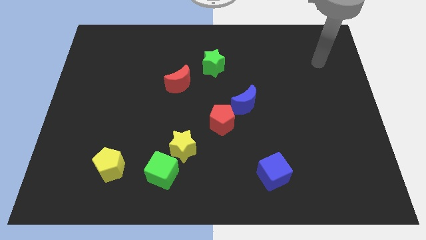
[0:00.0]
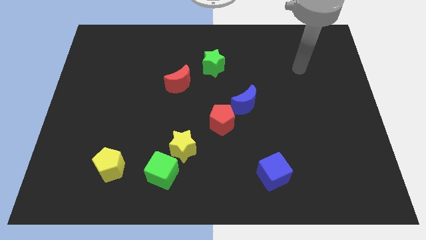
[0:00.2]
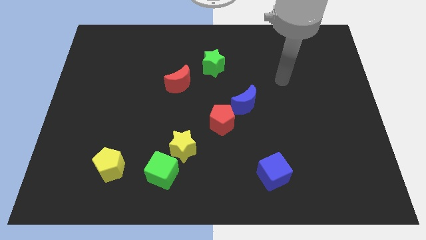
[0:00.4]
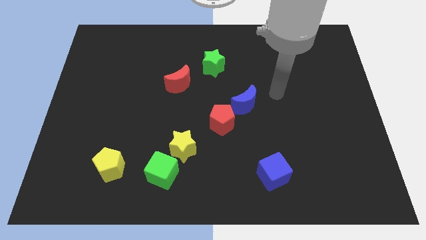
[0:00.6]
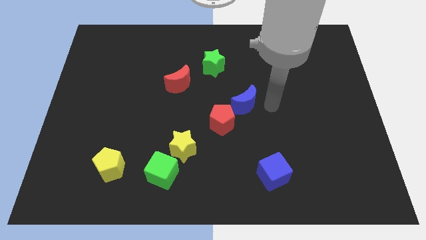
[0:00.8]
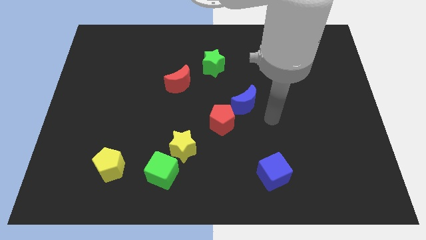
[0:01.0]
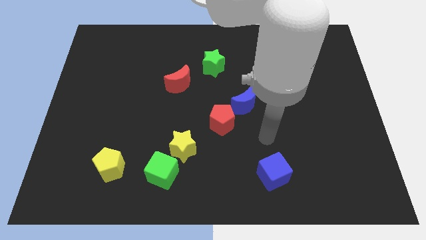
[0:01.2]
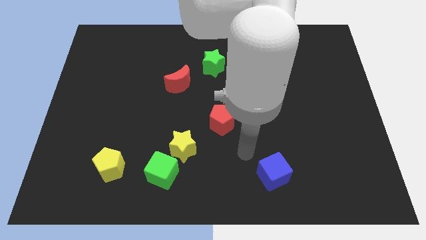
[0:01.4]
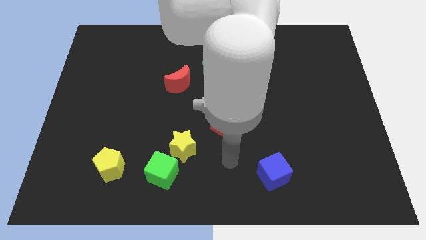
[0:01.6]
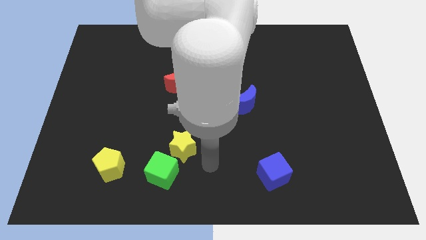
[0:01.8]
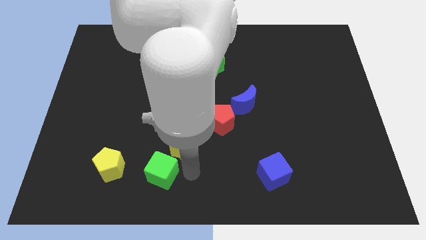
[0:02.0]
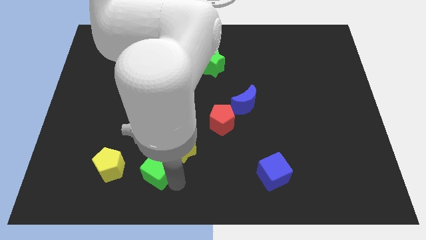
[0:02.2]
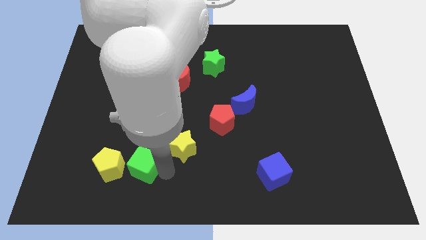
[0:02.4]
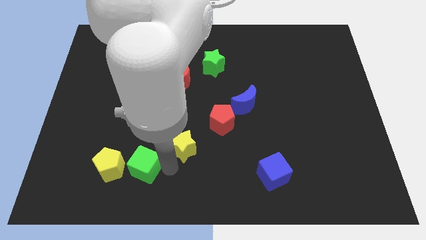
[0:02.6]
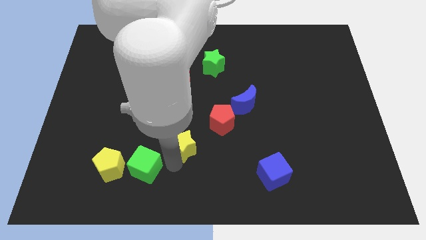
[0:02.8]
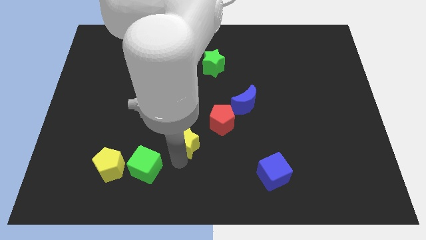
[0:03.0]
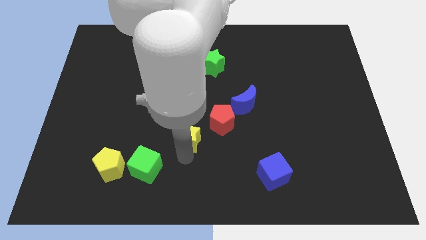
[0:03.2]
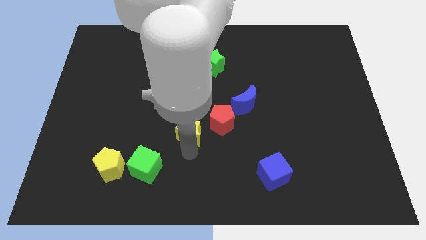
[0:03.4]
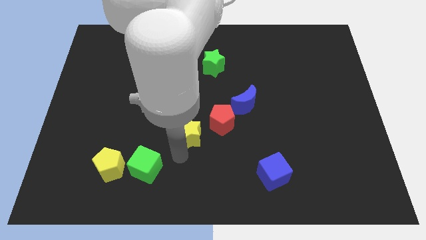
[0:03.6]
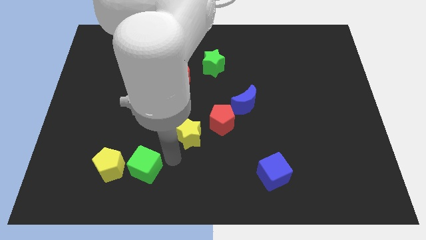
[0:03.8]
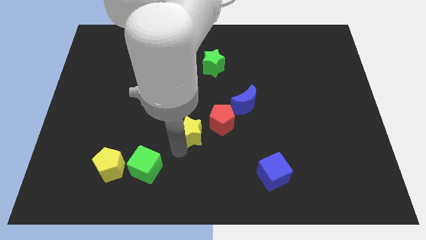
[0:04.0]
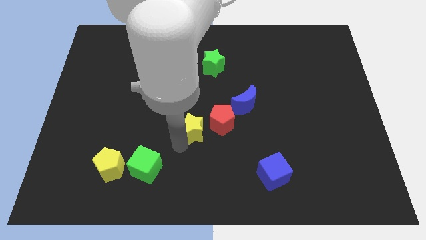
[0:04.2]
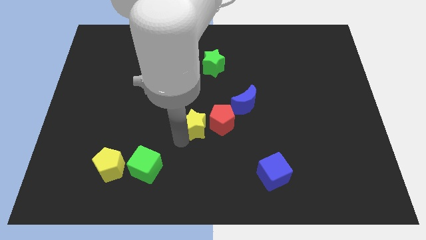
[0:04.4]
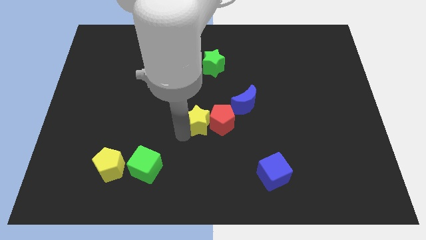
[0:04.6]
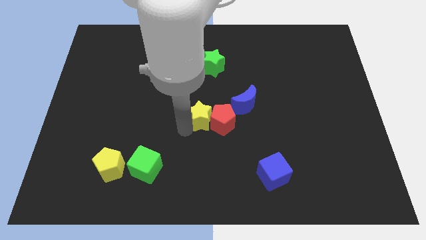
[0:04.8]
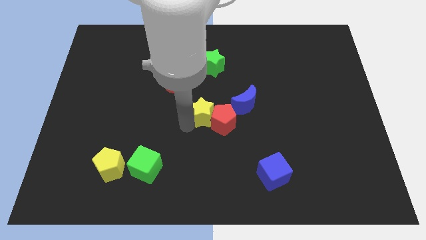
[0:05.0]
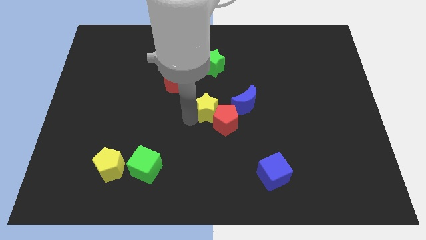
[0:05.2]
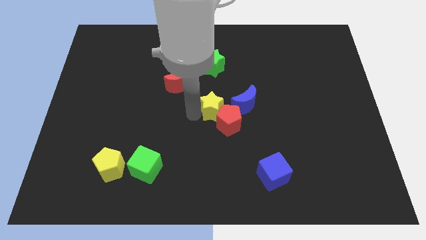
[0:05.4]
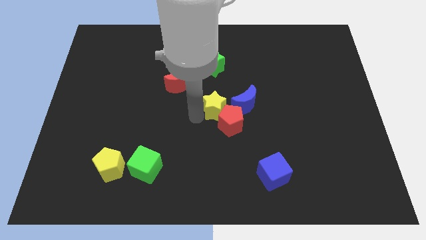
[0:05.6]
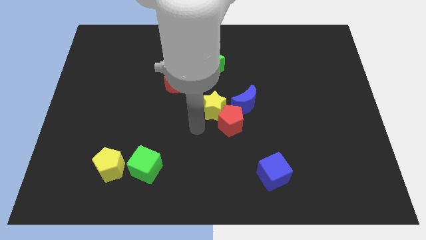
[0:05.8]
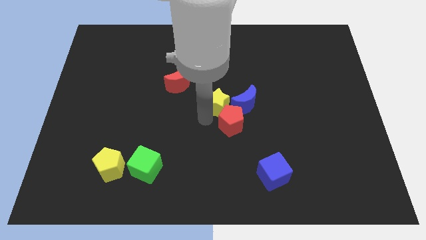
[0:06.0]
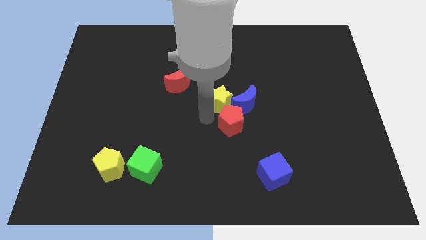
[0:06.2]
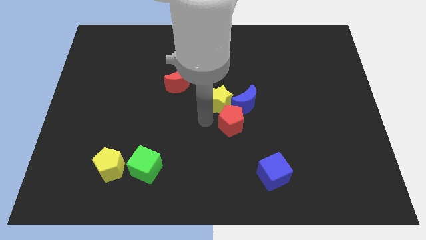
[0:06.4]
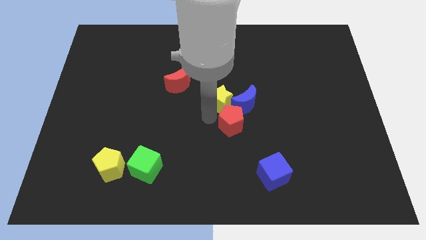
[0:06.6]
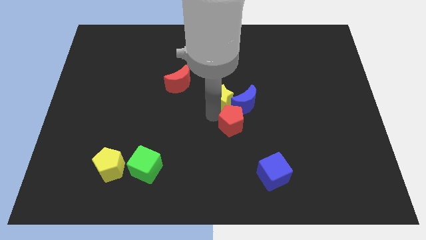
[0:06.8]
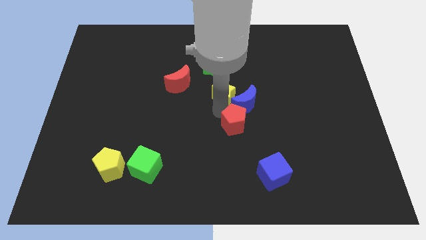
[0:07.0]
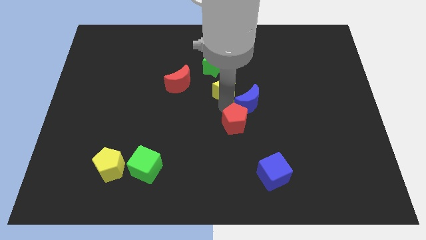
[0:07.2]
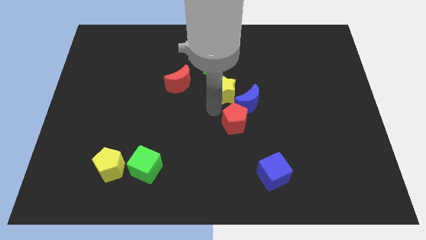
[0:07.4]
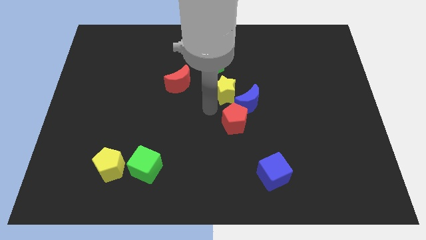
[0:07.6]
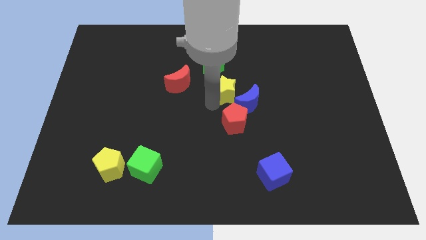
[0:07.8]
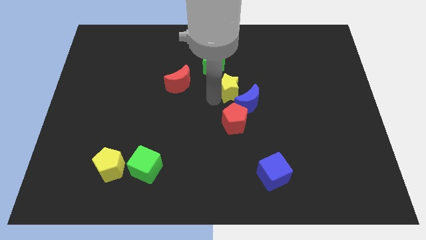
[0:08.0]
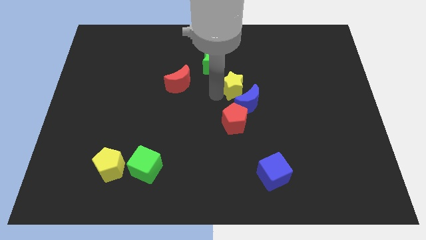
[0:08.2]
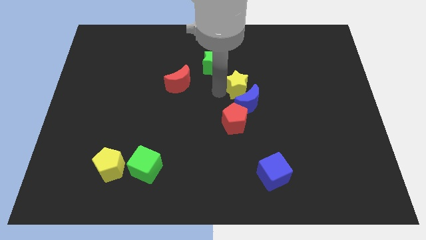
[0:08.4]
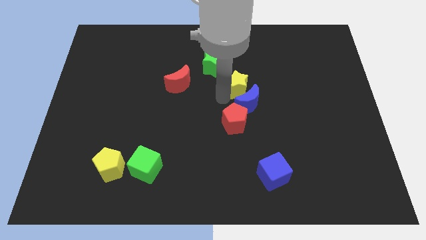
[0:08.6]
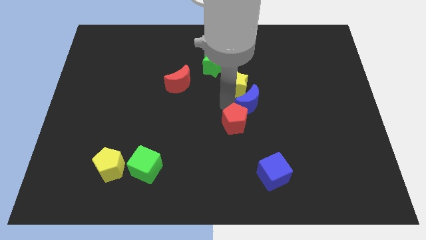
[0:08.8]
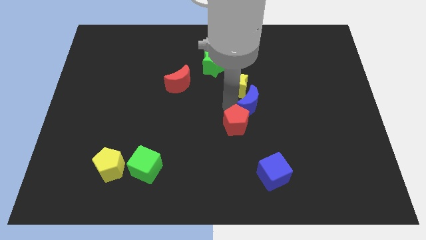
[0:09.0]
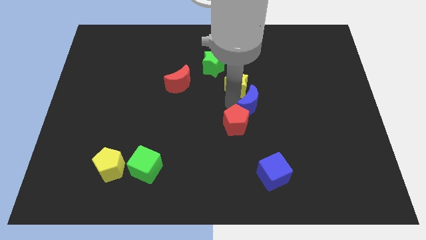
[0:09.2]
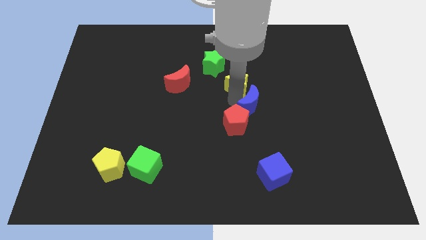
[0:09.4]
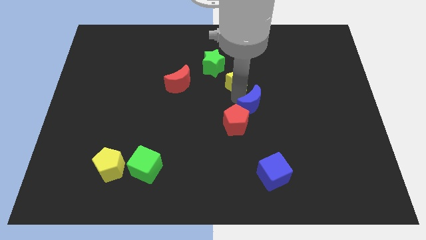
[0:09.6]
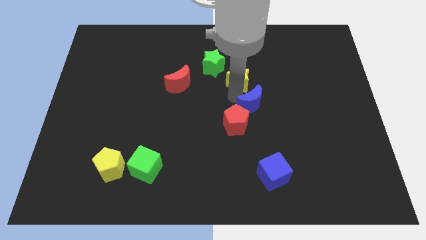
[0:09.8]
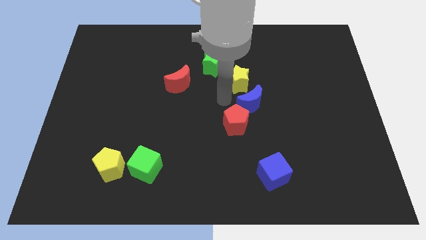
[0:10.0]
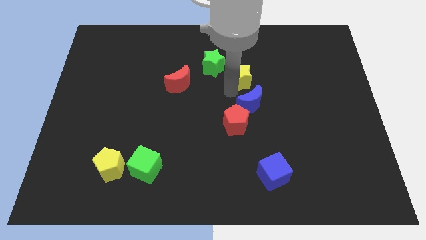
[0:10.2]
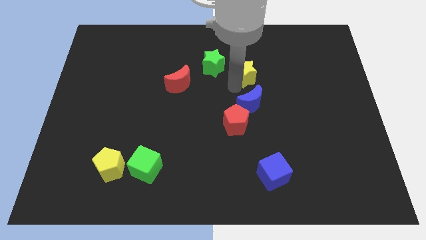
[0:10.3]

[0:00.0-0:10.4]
push the yellow star to the right side of the green star

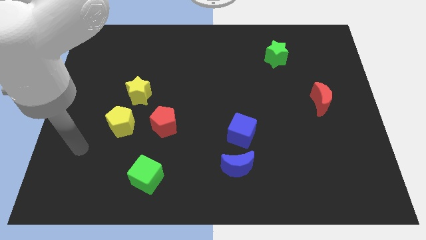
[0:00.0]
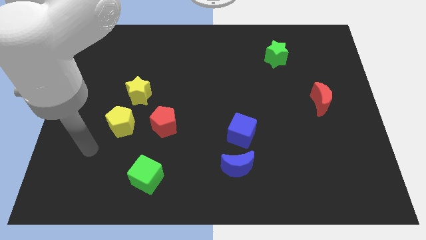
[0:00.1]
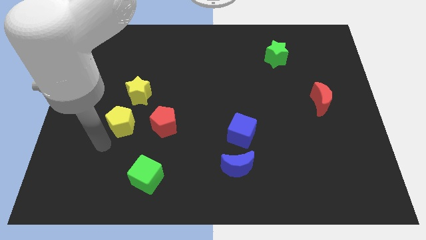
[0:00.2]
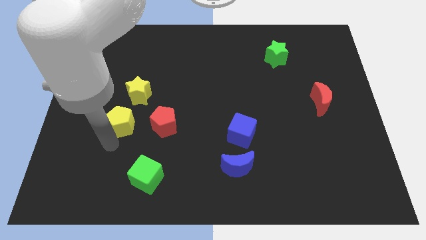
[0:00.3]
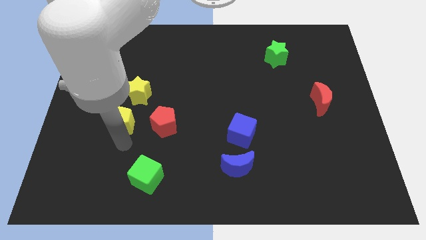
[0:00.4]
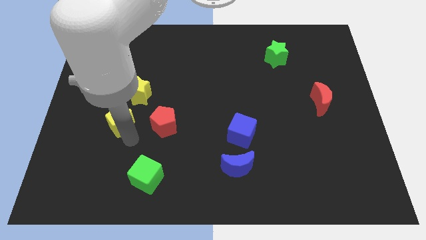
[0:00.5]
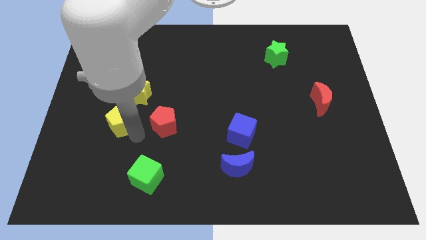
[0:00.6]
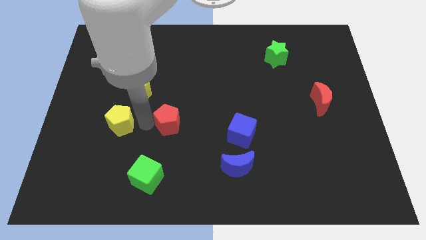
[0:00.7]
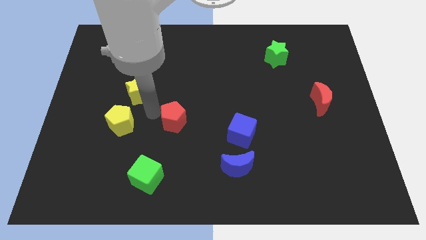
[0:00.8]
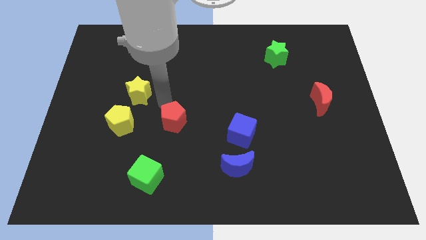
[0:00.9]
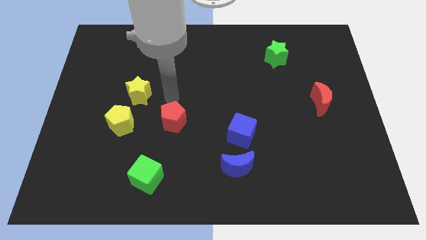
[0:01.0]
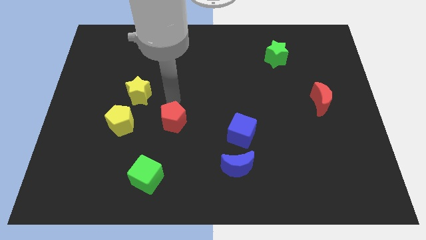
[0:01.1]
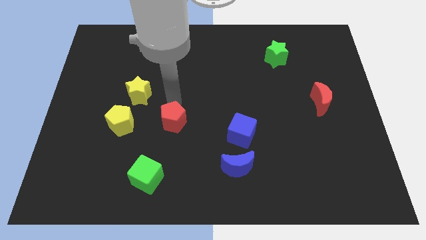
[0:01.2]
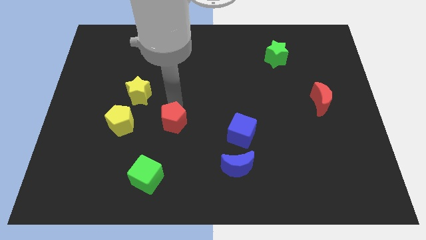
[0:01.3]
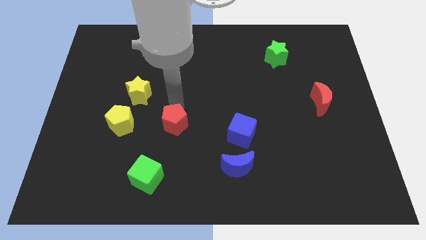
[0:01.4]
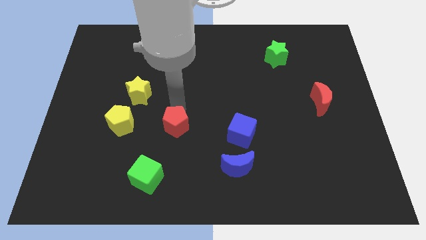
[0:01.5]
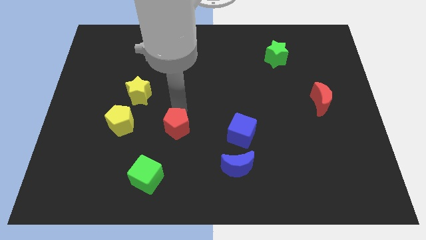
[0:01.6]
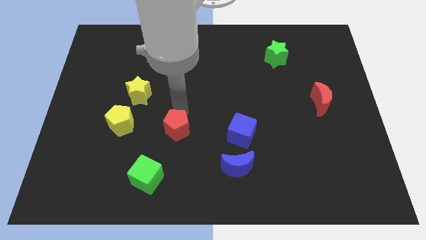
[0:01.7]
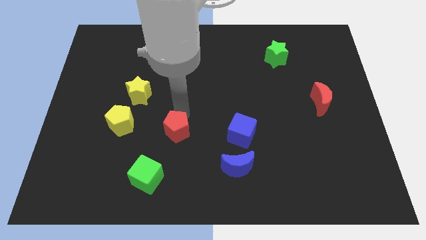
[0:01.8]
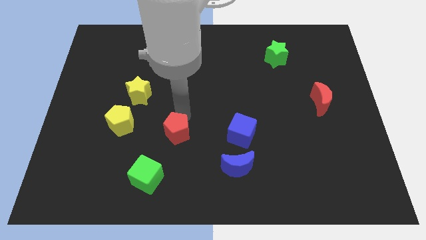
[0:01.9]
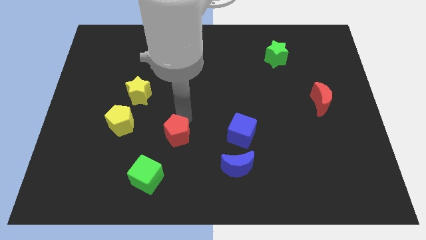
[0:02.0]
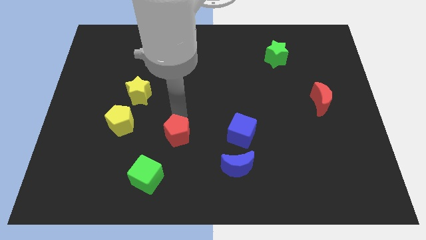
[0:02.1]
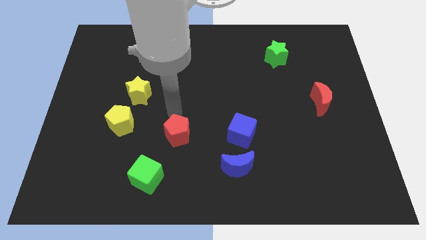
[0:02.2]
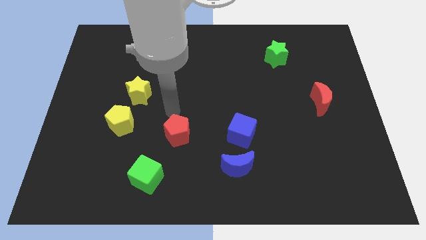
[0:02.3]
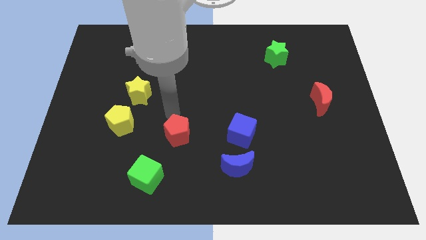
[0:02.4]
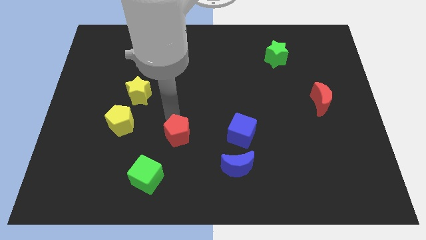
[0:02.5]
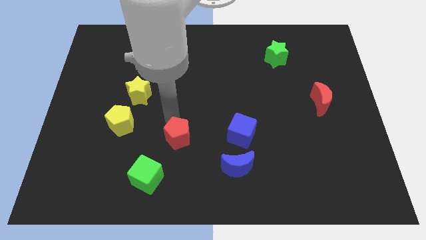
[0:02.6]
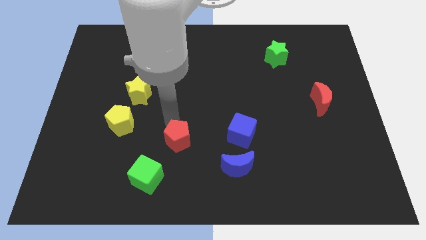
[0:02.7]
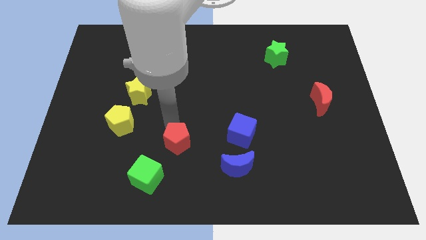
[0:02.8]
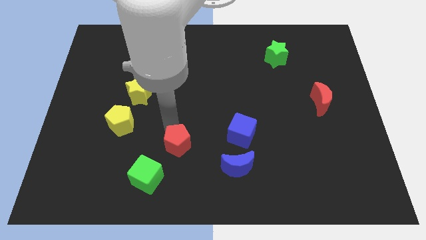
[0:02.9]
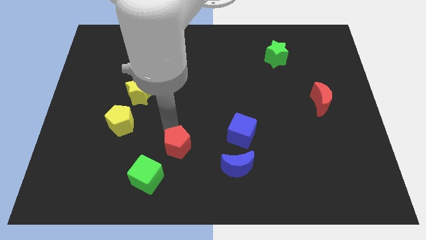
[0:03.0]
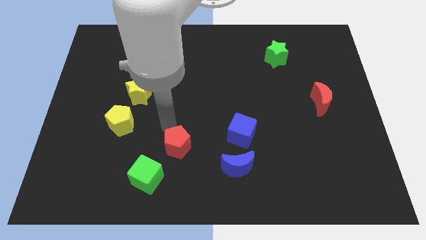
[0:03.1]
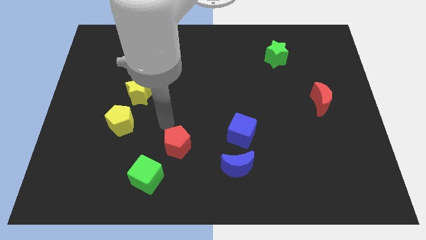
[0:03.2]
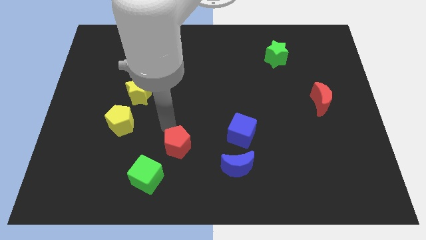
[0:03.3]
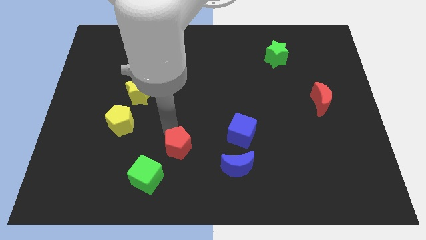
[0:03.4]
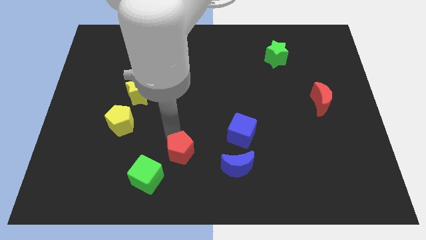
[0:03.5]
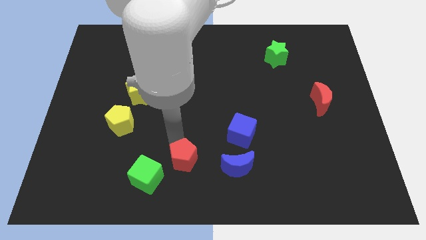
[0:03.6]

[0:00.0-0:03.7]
move the red pentagon to the right side of the green cube
